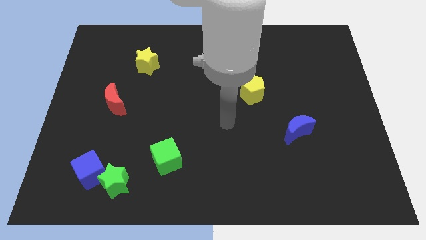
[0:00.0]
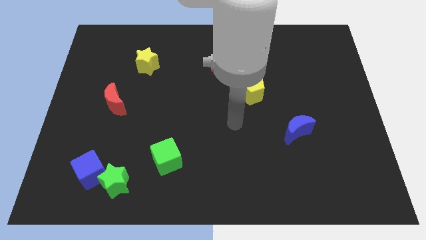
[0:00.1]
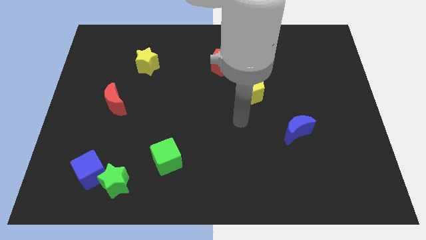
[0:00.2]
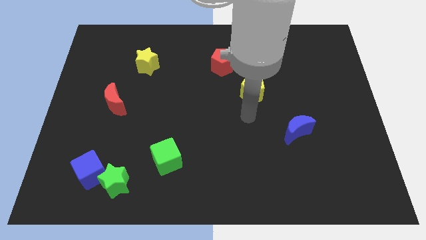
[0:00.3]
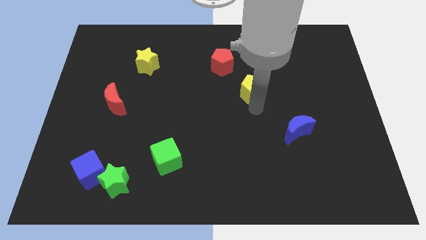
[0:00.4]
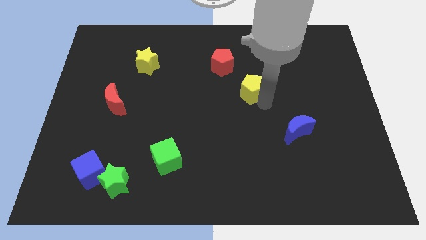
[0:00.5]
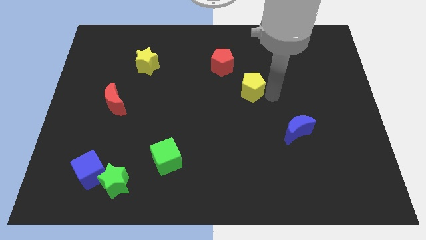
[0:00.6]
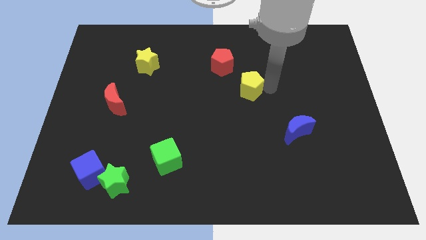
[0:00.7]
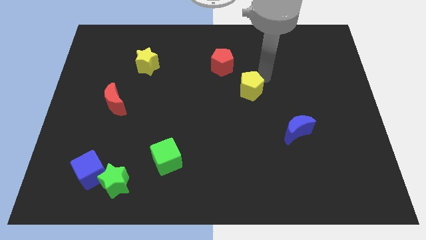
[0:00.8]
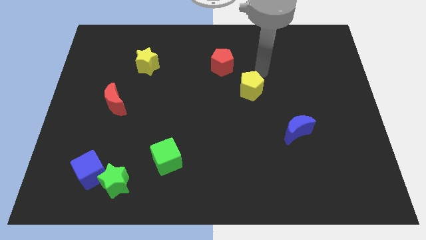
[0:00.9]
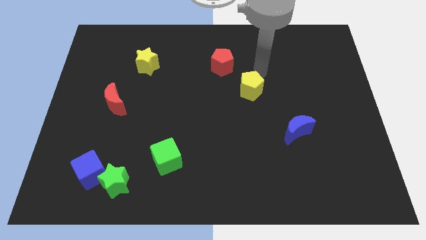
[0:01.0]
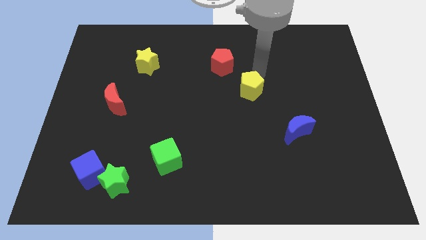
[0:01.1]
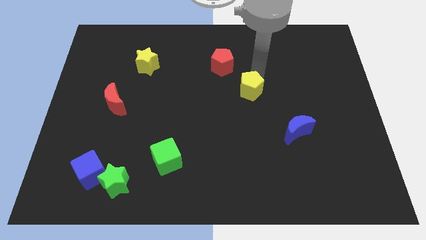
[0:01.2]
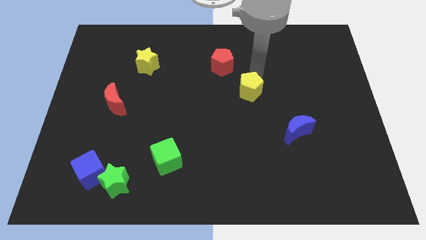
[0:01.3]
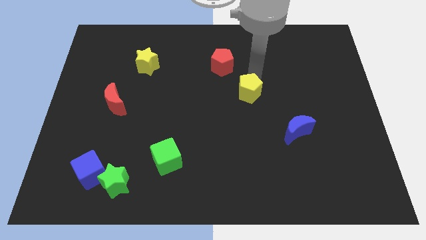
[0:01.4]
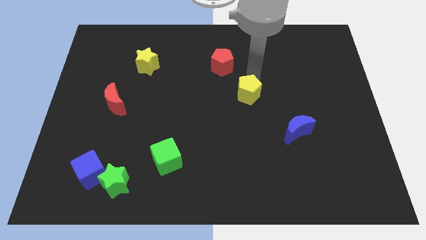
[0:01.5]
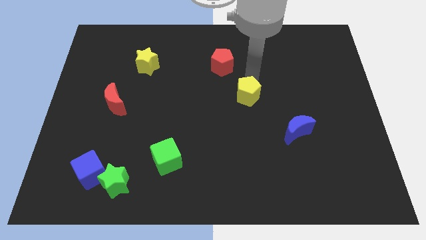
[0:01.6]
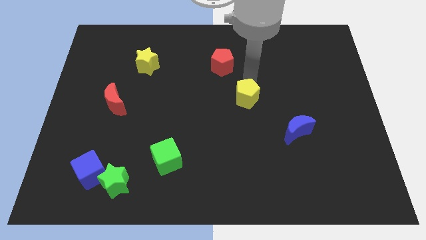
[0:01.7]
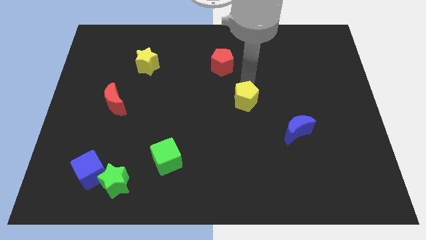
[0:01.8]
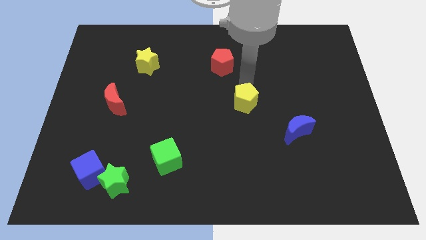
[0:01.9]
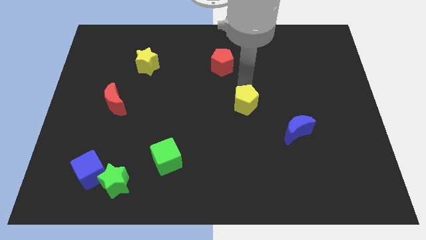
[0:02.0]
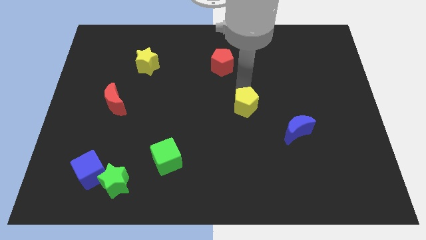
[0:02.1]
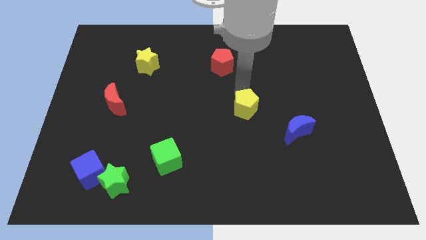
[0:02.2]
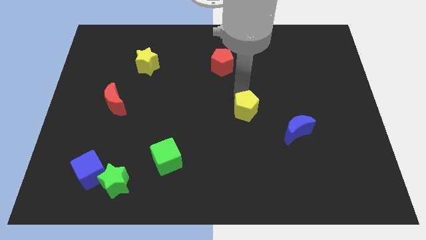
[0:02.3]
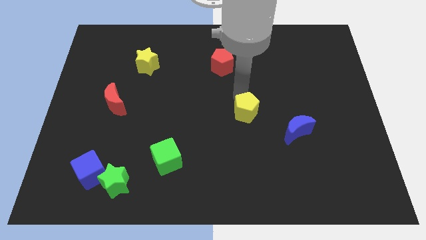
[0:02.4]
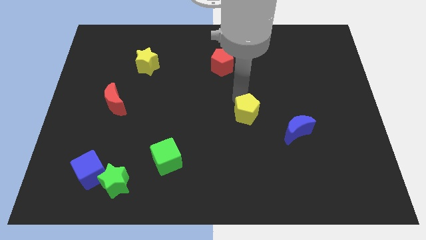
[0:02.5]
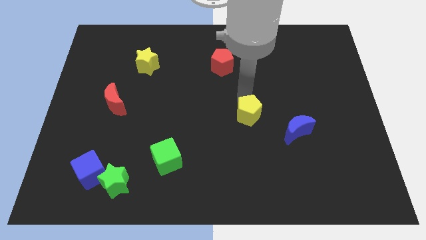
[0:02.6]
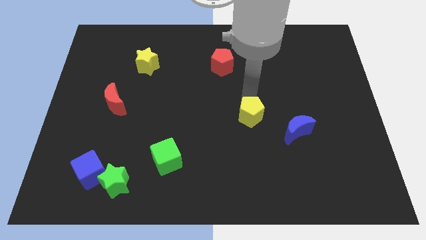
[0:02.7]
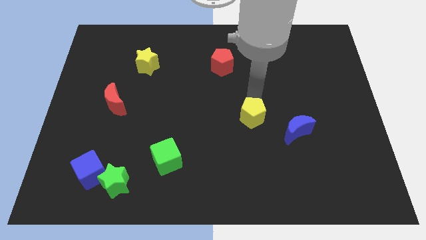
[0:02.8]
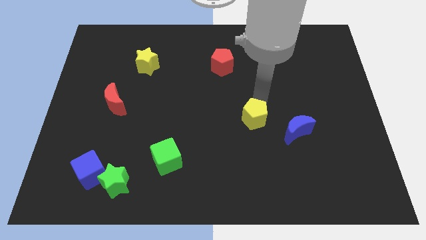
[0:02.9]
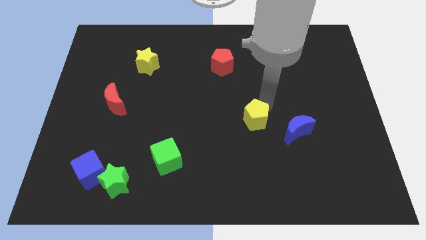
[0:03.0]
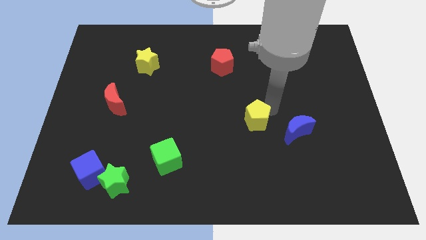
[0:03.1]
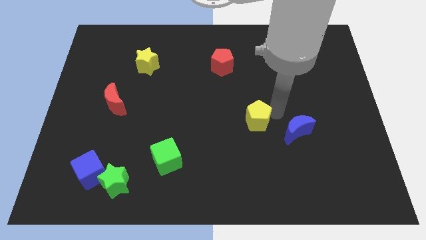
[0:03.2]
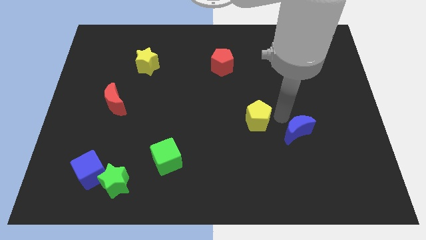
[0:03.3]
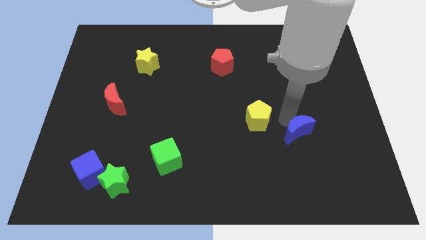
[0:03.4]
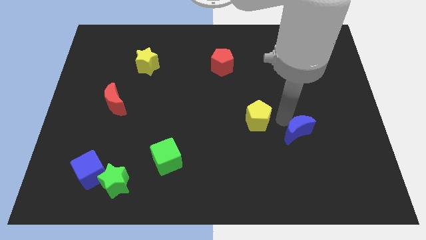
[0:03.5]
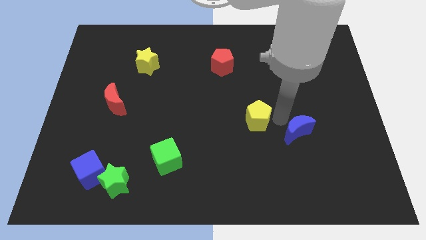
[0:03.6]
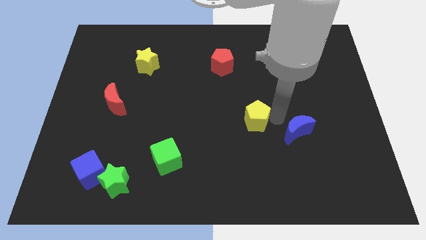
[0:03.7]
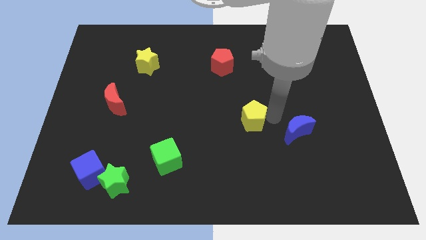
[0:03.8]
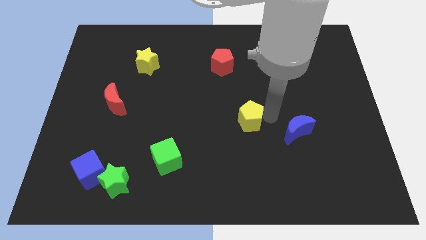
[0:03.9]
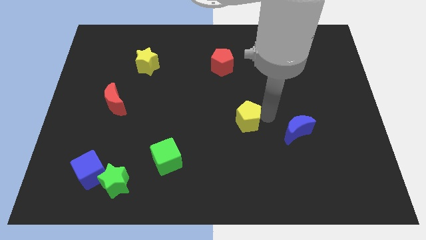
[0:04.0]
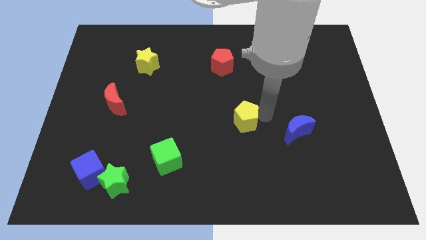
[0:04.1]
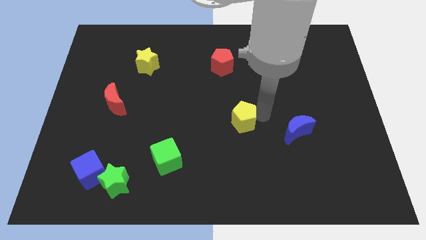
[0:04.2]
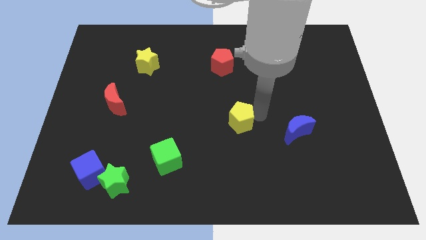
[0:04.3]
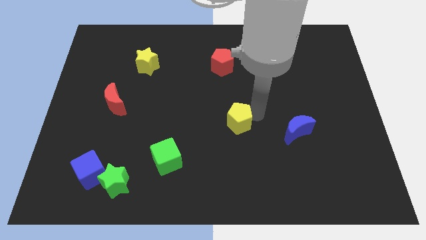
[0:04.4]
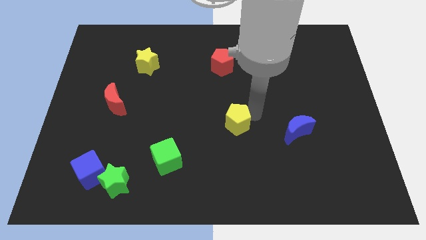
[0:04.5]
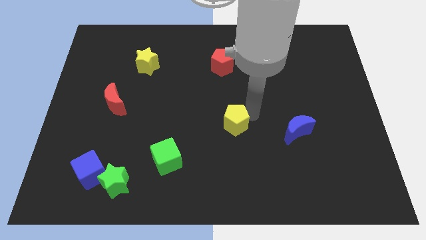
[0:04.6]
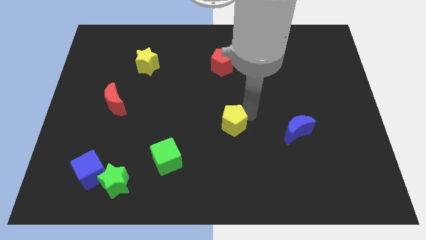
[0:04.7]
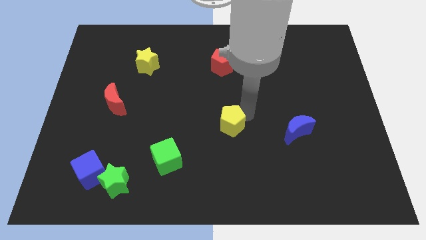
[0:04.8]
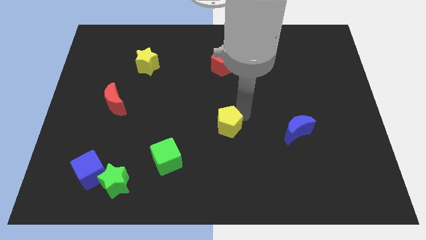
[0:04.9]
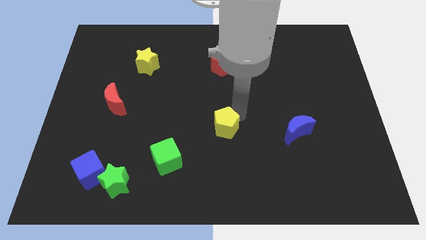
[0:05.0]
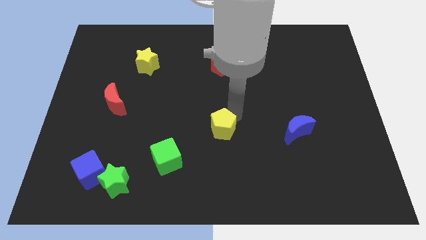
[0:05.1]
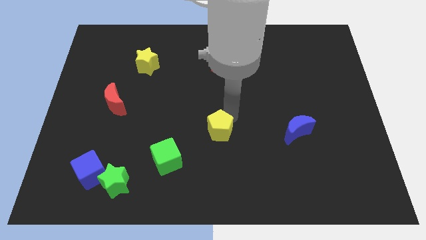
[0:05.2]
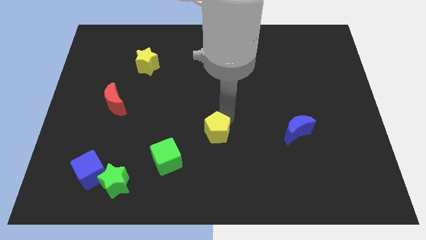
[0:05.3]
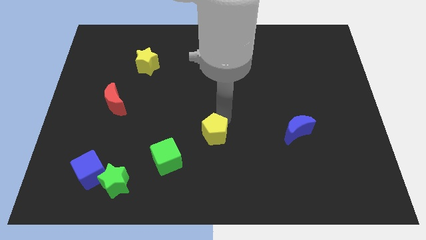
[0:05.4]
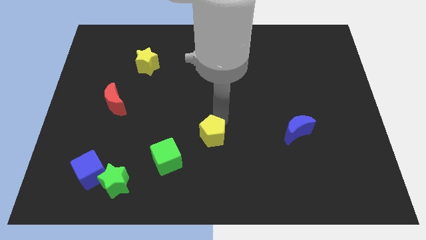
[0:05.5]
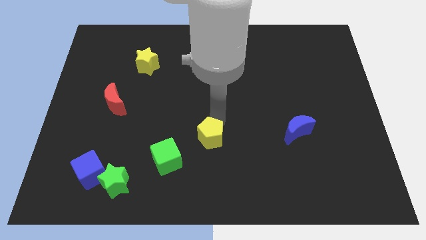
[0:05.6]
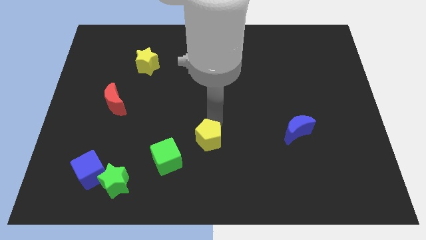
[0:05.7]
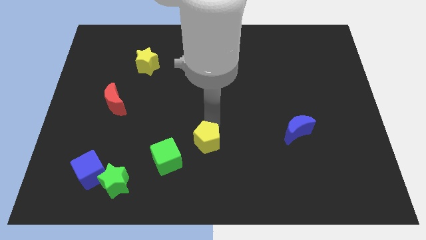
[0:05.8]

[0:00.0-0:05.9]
slide the yellow pentagon to the right of the green cube
